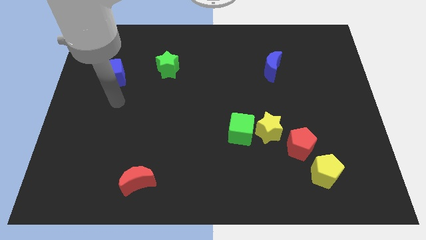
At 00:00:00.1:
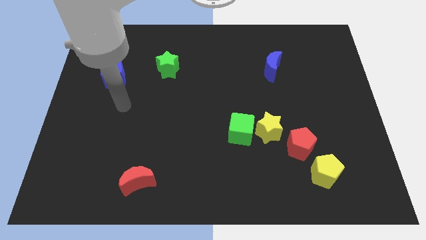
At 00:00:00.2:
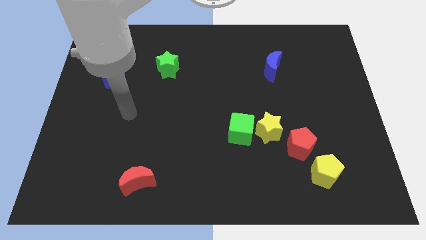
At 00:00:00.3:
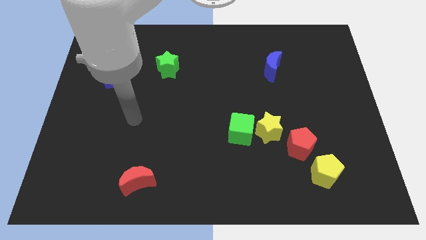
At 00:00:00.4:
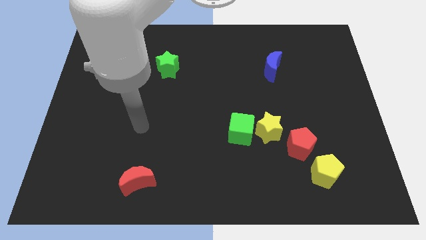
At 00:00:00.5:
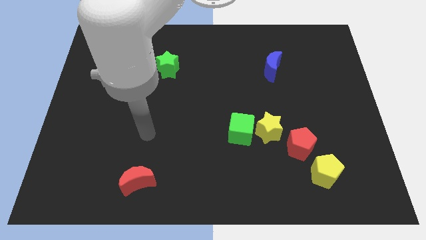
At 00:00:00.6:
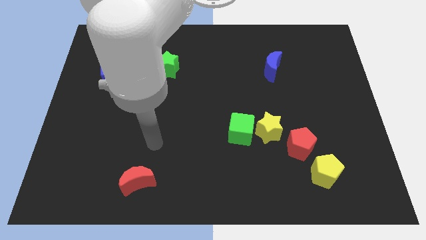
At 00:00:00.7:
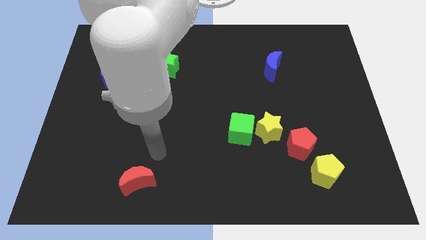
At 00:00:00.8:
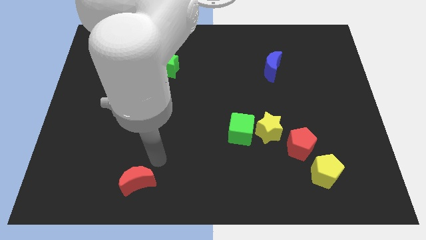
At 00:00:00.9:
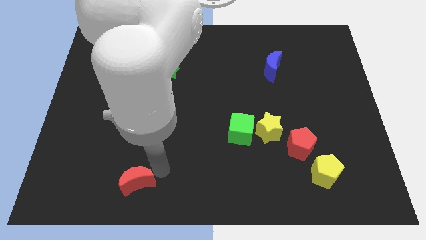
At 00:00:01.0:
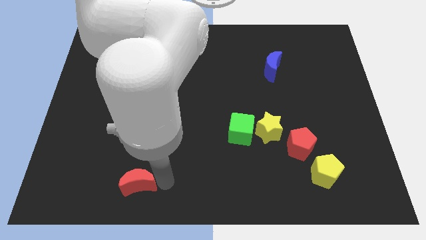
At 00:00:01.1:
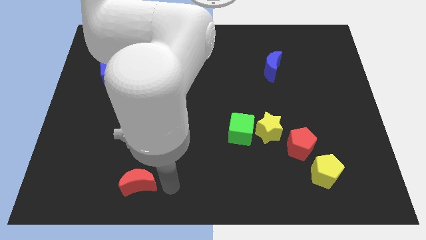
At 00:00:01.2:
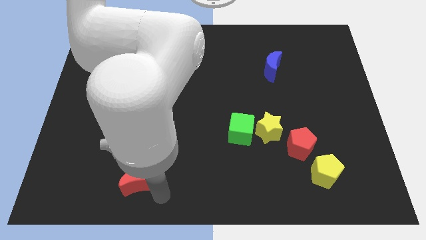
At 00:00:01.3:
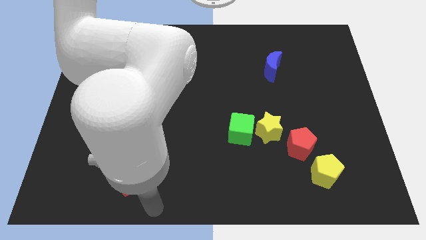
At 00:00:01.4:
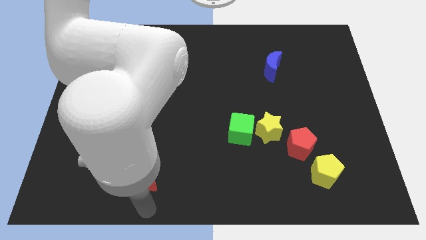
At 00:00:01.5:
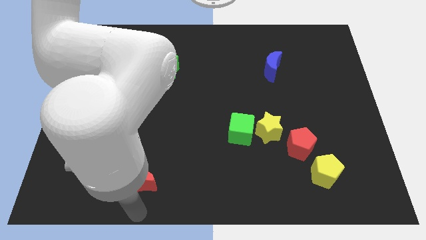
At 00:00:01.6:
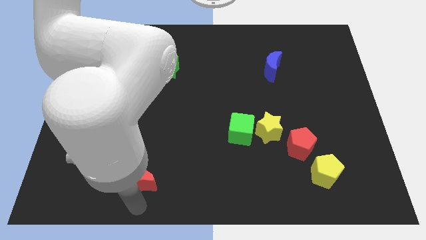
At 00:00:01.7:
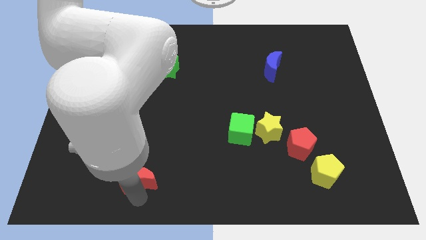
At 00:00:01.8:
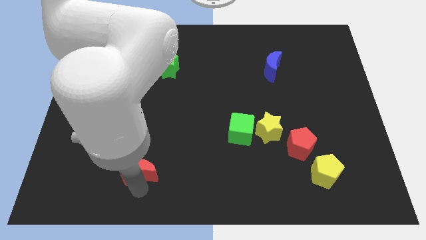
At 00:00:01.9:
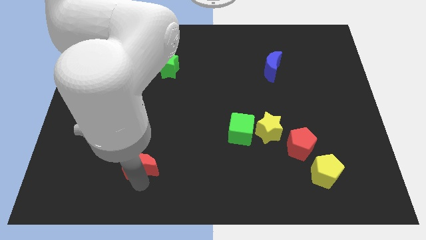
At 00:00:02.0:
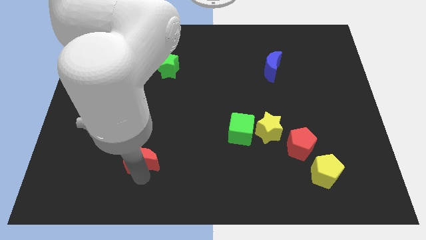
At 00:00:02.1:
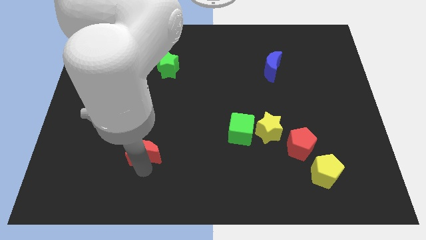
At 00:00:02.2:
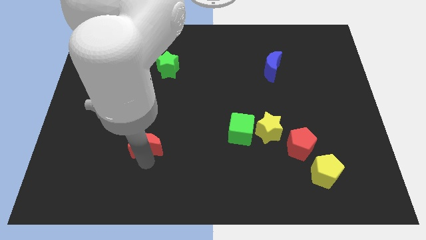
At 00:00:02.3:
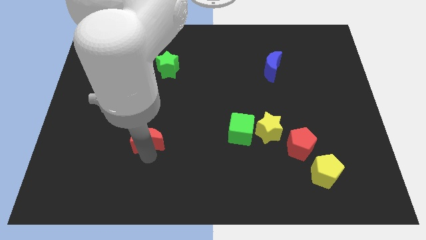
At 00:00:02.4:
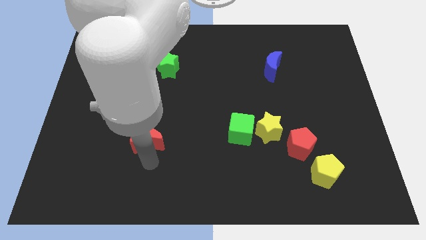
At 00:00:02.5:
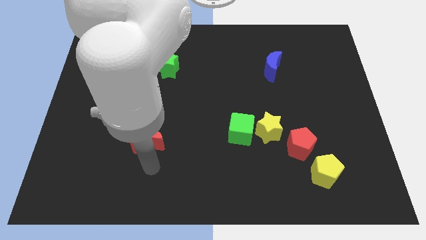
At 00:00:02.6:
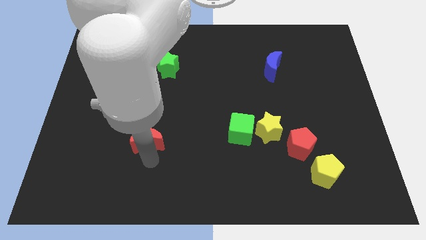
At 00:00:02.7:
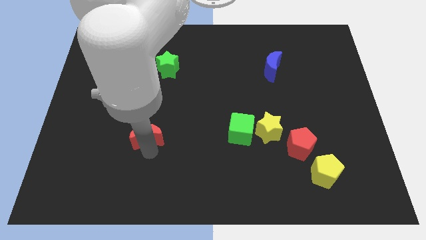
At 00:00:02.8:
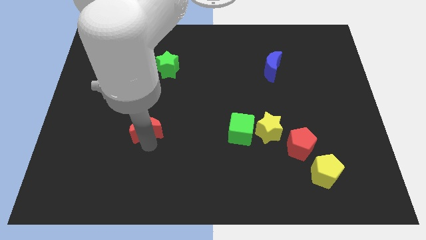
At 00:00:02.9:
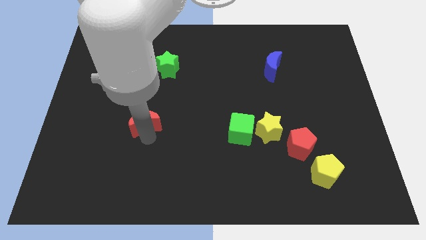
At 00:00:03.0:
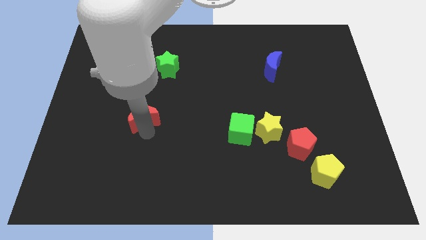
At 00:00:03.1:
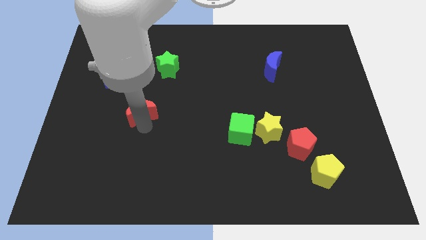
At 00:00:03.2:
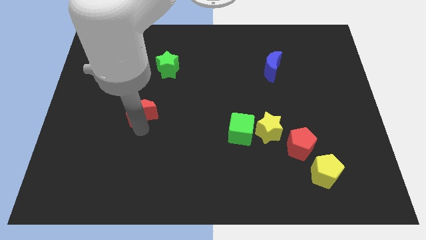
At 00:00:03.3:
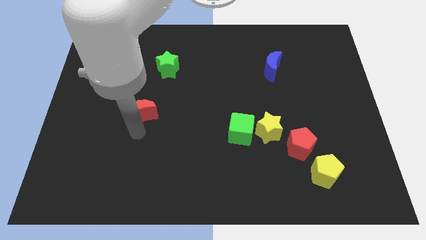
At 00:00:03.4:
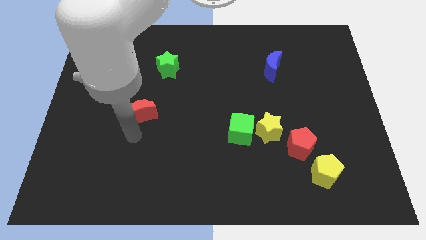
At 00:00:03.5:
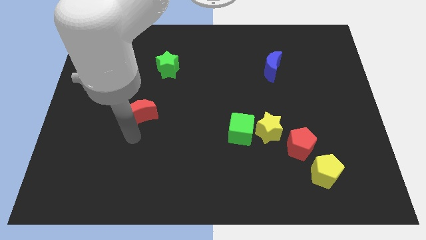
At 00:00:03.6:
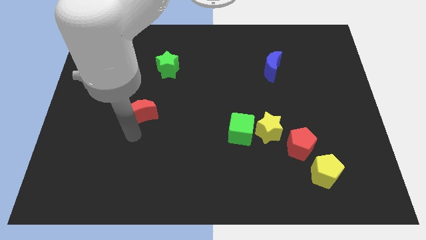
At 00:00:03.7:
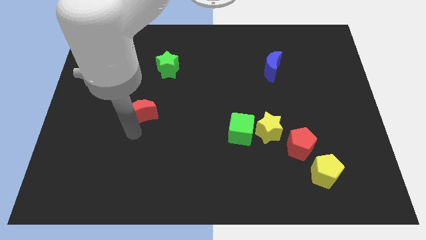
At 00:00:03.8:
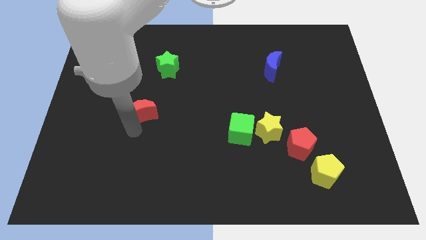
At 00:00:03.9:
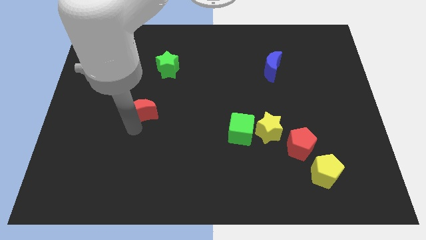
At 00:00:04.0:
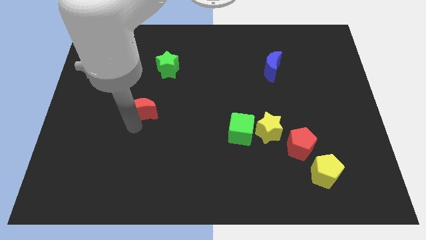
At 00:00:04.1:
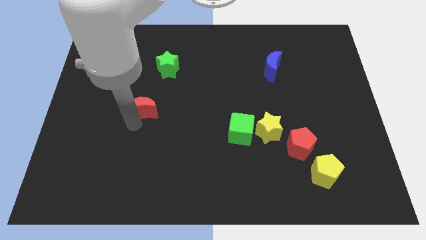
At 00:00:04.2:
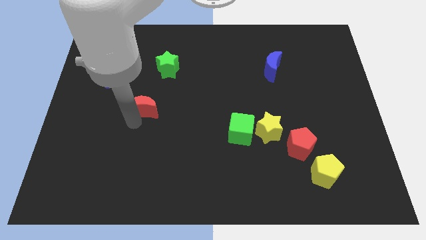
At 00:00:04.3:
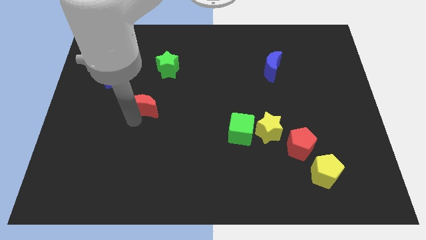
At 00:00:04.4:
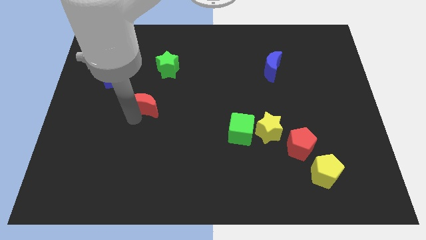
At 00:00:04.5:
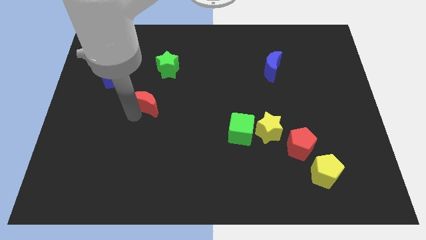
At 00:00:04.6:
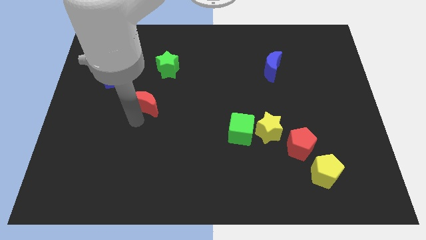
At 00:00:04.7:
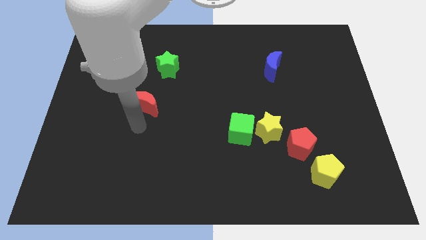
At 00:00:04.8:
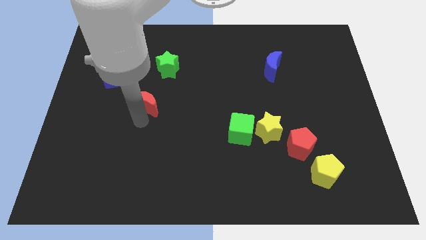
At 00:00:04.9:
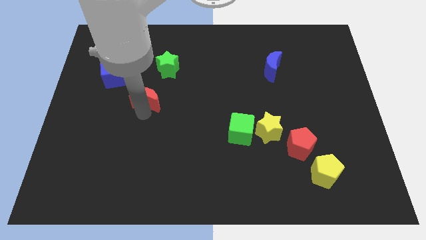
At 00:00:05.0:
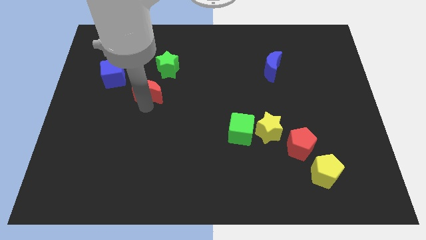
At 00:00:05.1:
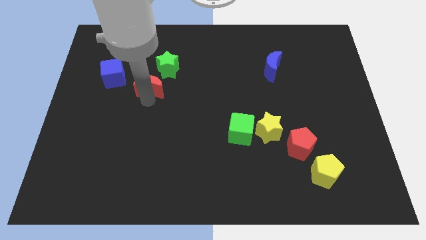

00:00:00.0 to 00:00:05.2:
slide the red moon right of the blue cube

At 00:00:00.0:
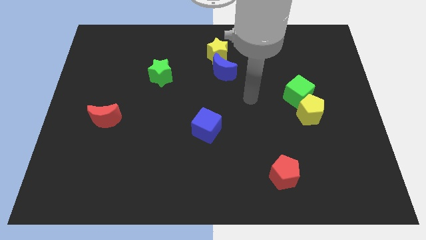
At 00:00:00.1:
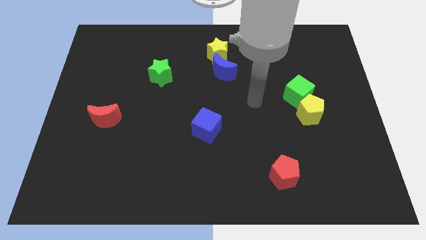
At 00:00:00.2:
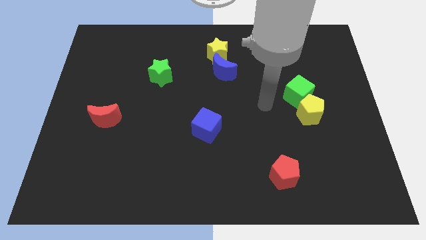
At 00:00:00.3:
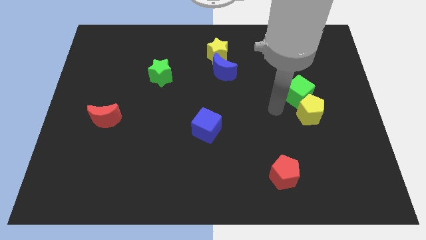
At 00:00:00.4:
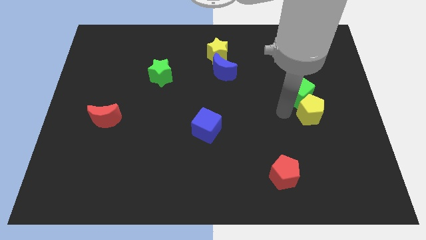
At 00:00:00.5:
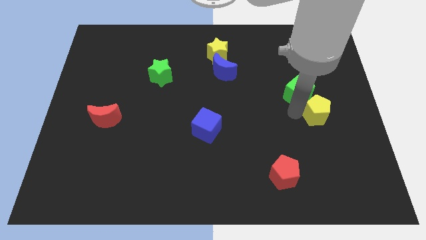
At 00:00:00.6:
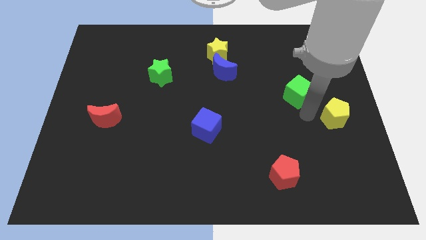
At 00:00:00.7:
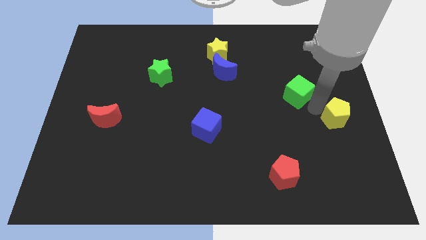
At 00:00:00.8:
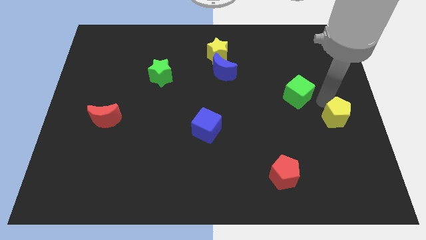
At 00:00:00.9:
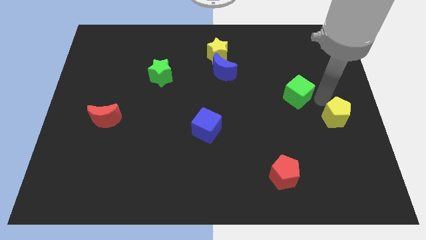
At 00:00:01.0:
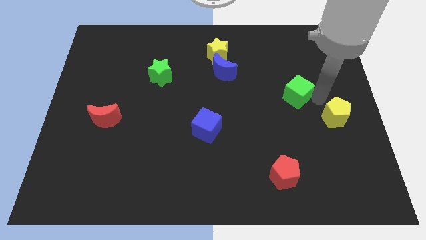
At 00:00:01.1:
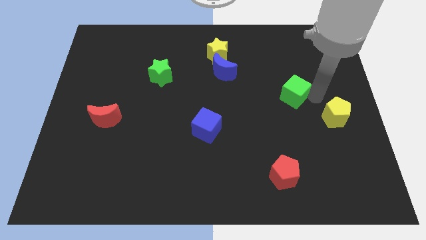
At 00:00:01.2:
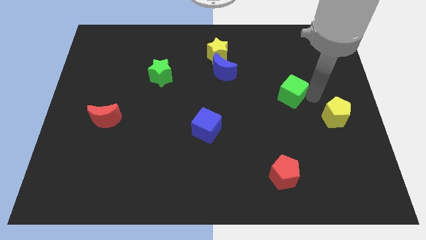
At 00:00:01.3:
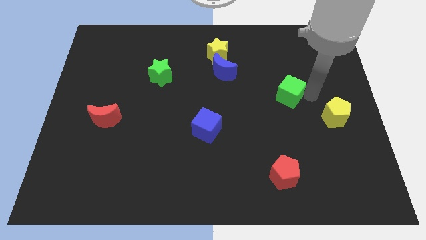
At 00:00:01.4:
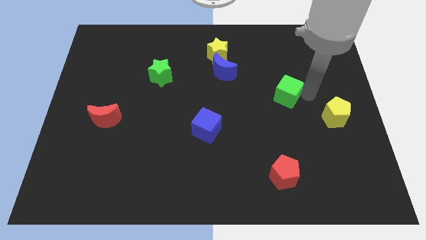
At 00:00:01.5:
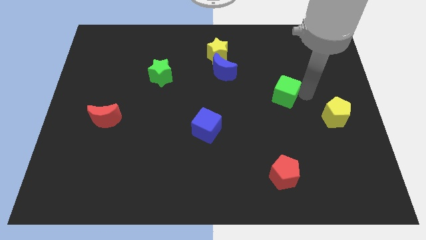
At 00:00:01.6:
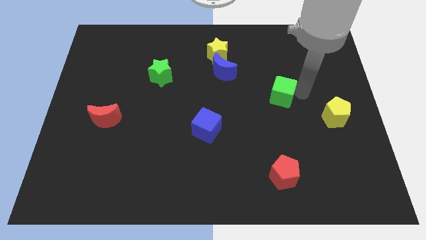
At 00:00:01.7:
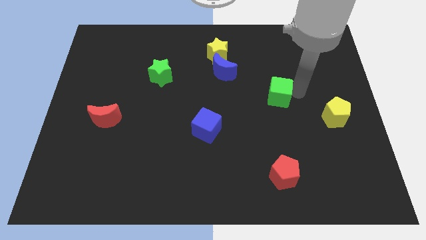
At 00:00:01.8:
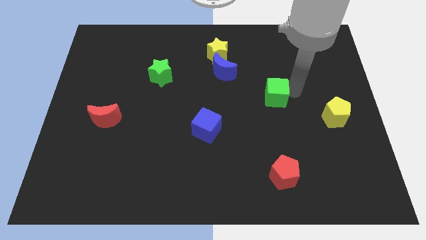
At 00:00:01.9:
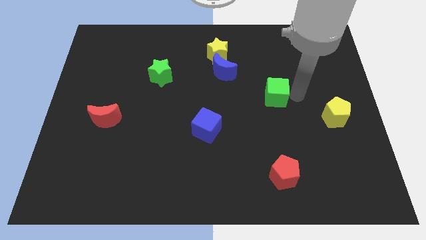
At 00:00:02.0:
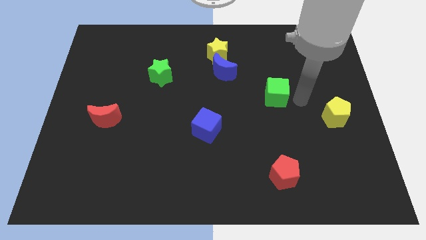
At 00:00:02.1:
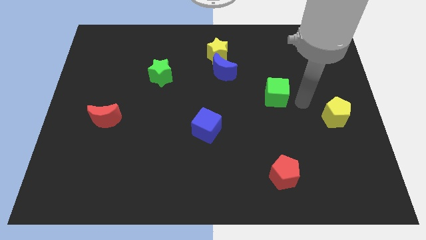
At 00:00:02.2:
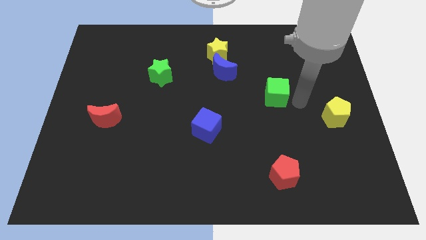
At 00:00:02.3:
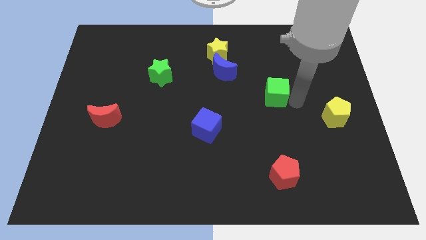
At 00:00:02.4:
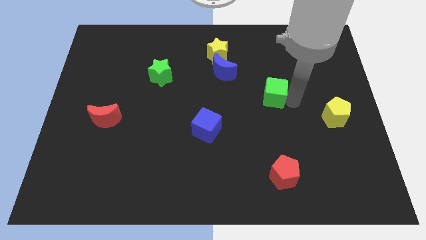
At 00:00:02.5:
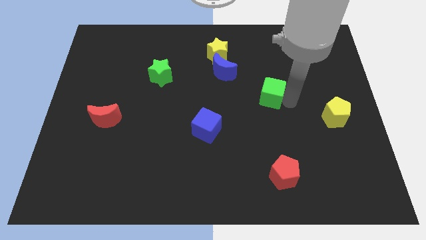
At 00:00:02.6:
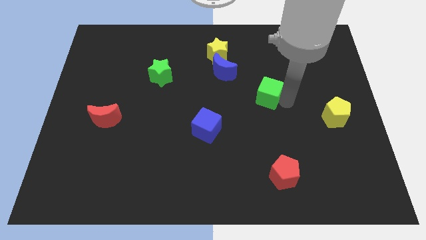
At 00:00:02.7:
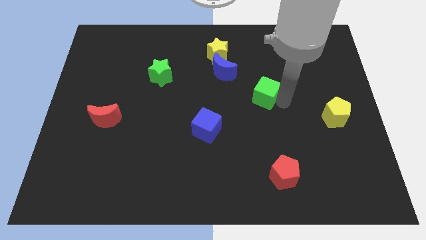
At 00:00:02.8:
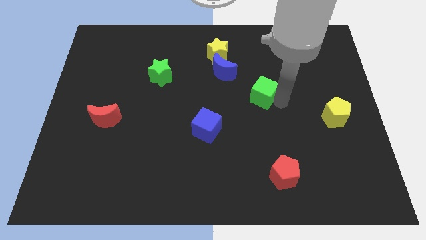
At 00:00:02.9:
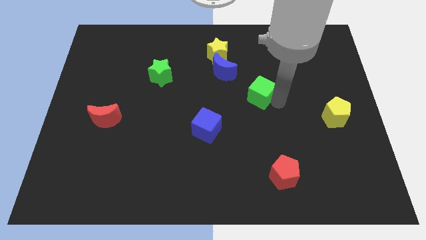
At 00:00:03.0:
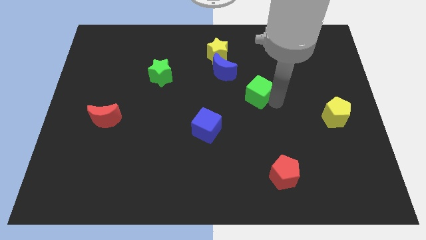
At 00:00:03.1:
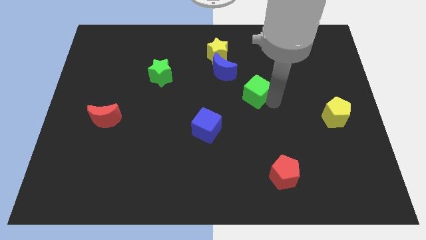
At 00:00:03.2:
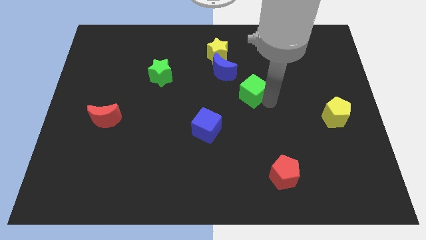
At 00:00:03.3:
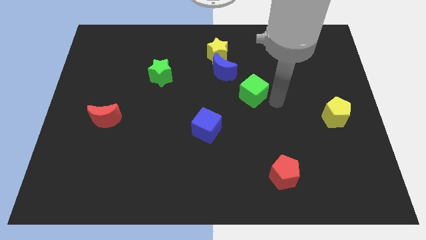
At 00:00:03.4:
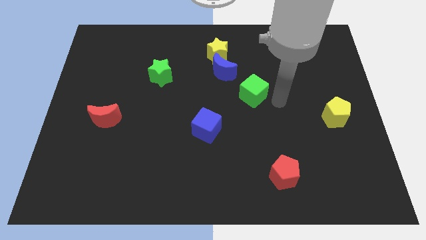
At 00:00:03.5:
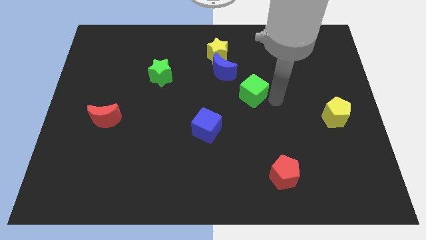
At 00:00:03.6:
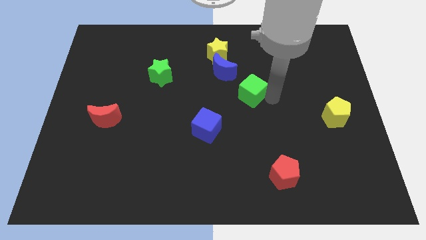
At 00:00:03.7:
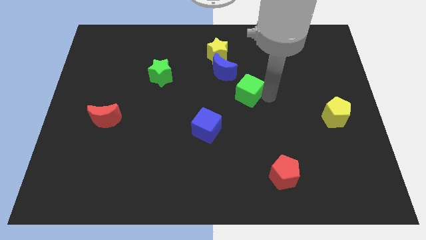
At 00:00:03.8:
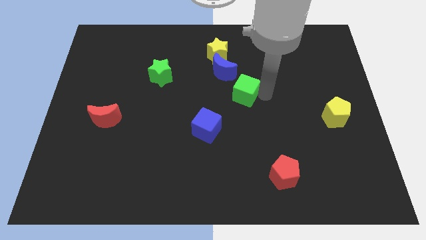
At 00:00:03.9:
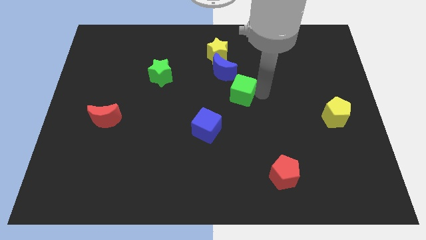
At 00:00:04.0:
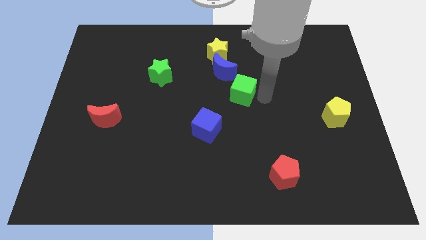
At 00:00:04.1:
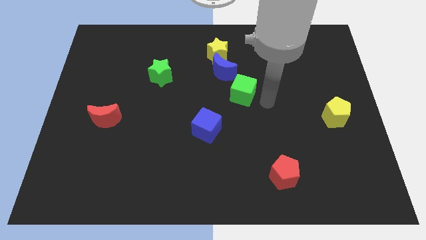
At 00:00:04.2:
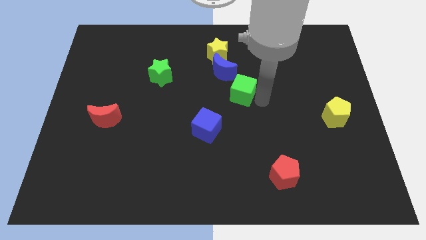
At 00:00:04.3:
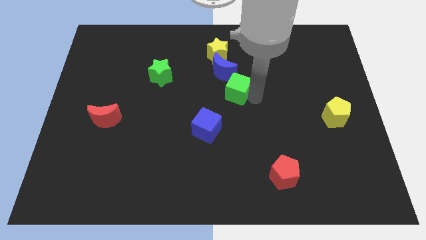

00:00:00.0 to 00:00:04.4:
put the green cube below the yellow star
